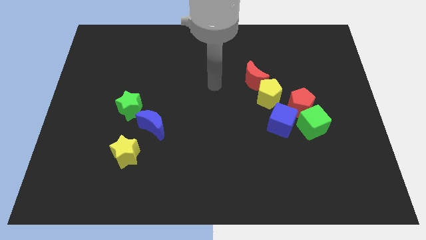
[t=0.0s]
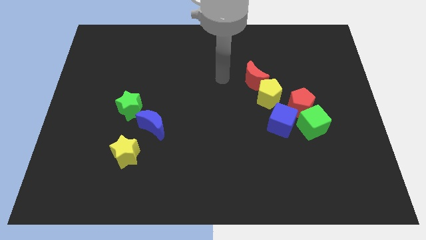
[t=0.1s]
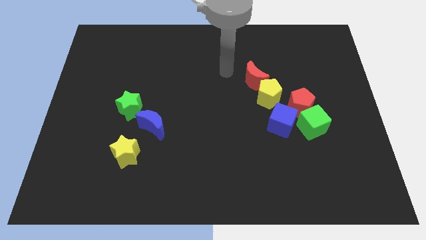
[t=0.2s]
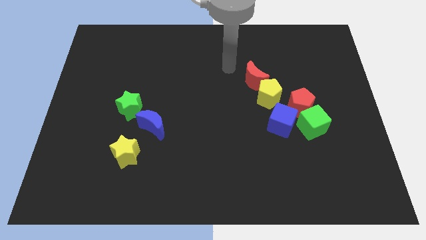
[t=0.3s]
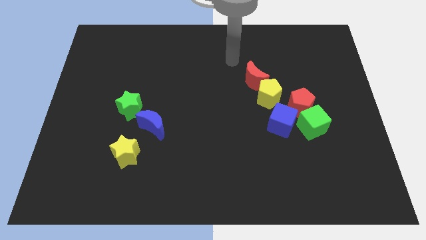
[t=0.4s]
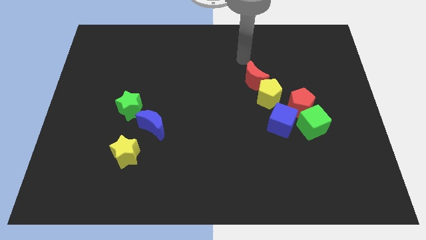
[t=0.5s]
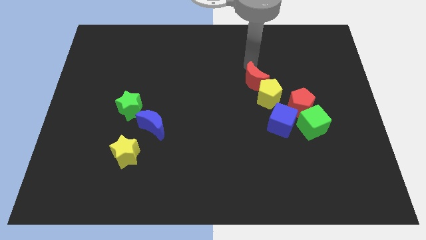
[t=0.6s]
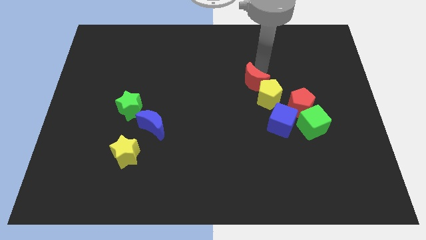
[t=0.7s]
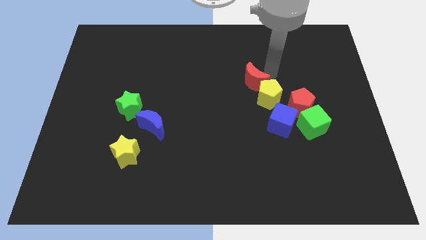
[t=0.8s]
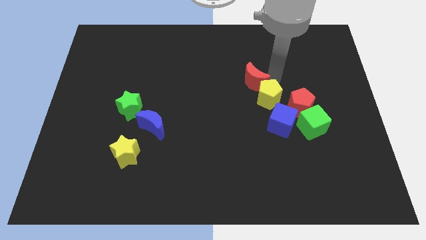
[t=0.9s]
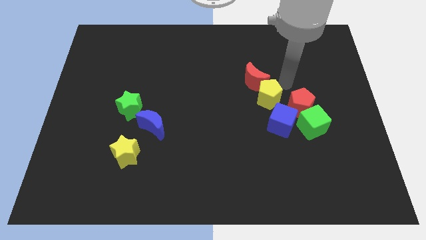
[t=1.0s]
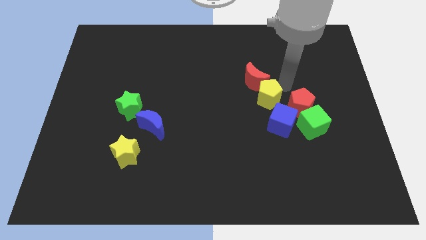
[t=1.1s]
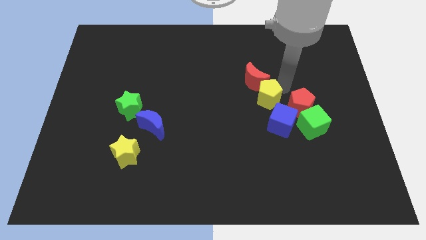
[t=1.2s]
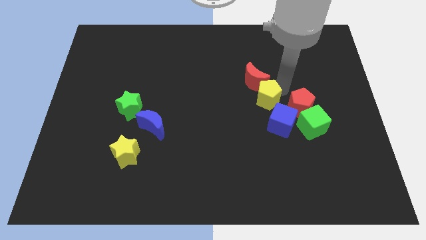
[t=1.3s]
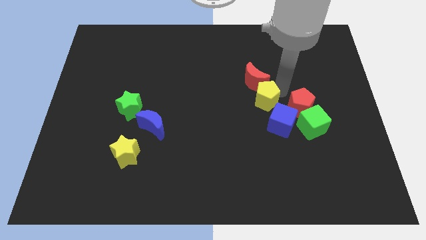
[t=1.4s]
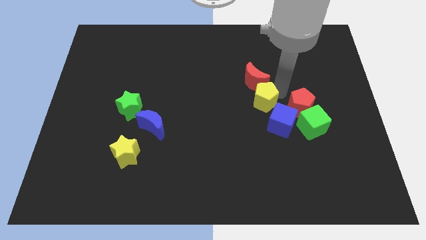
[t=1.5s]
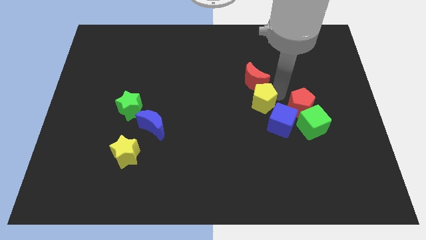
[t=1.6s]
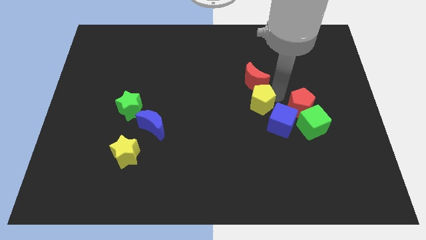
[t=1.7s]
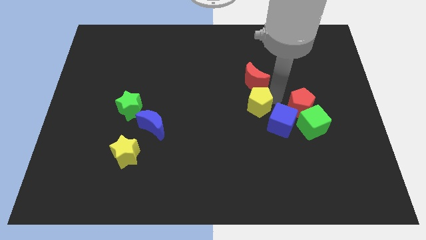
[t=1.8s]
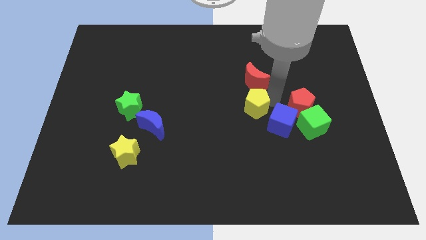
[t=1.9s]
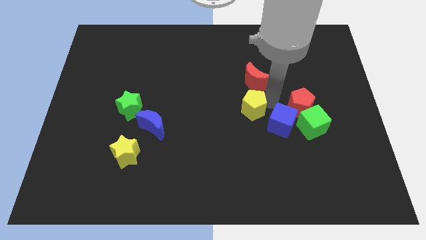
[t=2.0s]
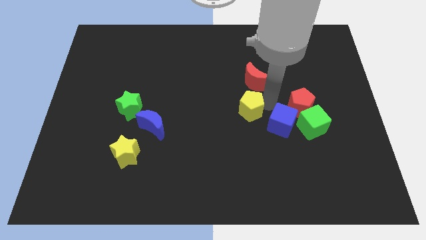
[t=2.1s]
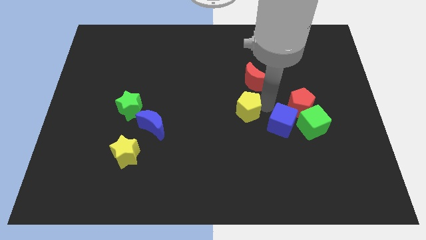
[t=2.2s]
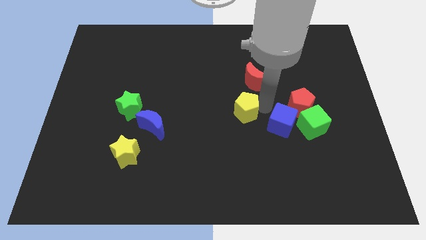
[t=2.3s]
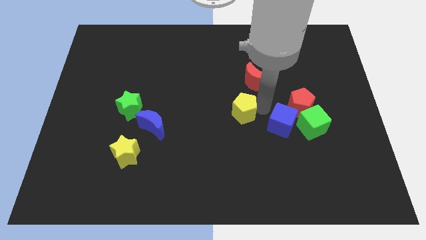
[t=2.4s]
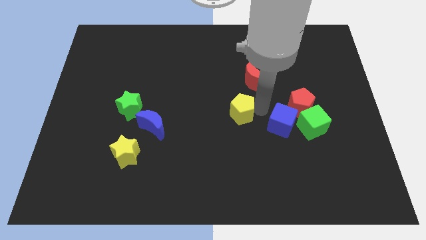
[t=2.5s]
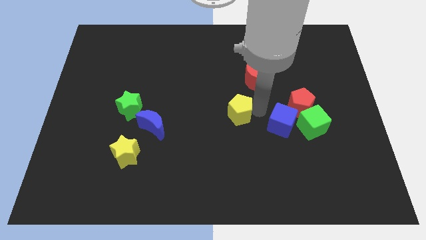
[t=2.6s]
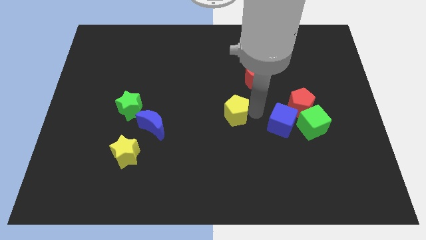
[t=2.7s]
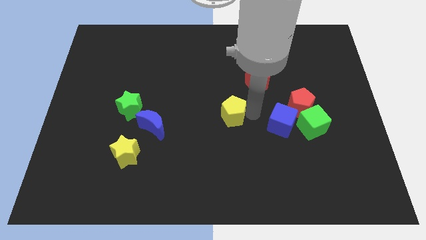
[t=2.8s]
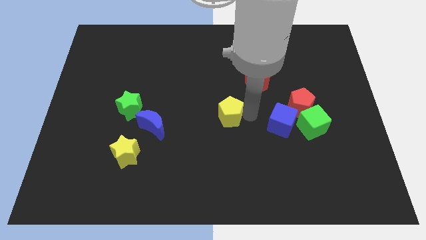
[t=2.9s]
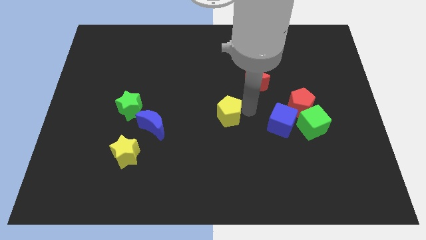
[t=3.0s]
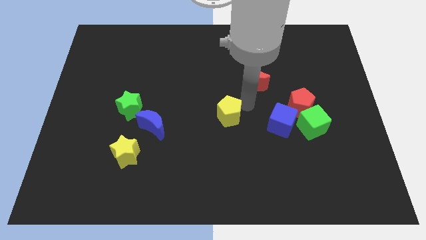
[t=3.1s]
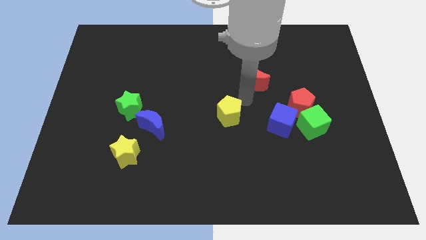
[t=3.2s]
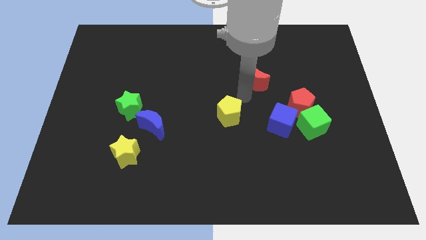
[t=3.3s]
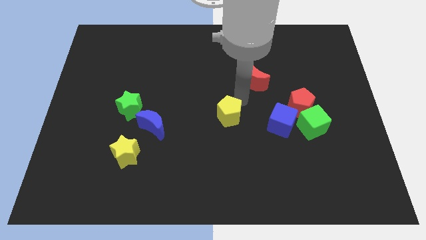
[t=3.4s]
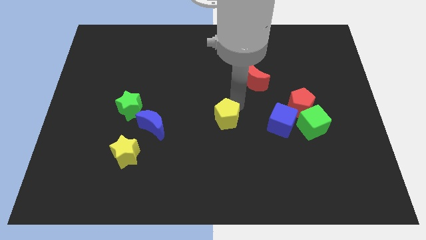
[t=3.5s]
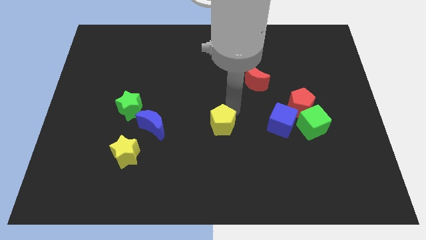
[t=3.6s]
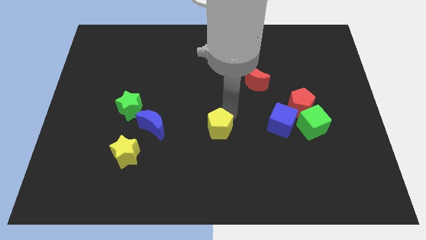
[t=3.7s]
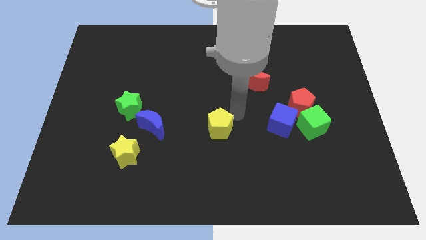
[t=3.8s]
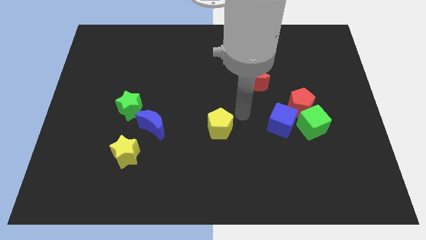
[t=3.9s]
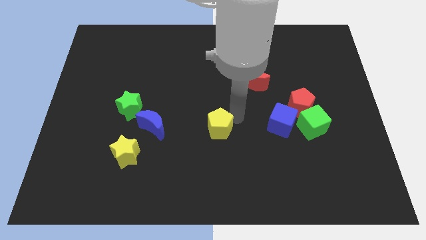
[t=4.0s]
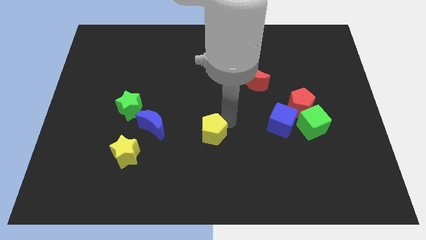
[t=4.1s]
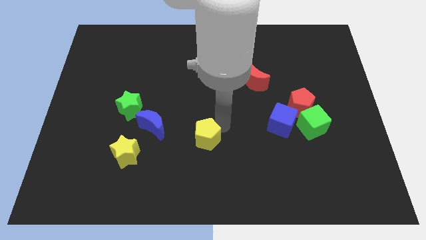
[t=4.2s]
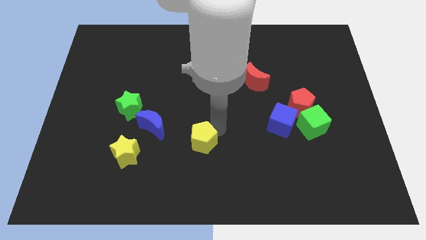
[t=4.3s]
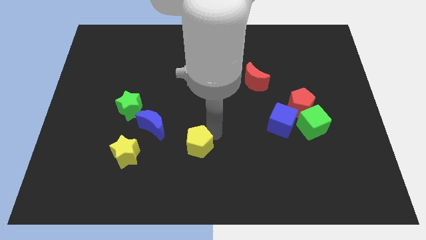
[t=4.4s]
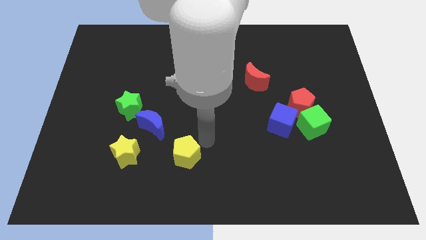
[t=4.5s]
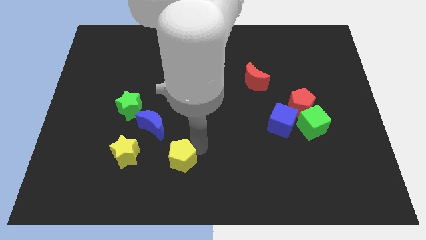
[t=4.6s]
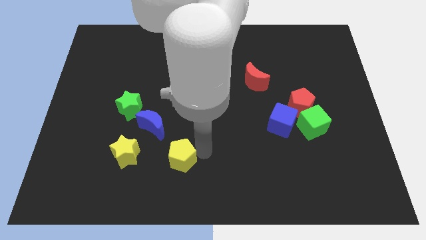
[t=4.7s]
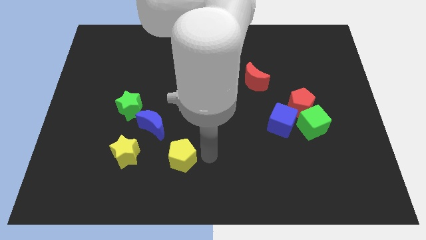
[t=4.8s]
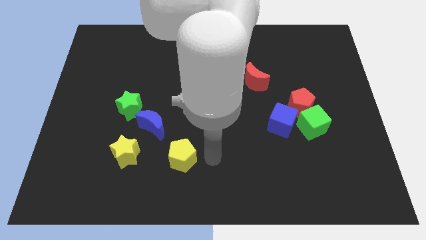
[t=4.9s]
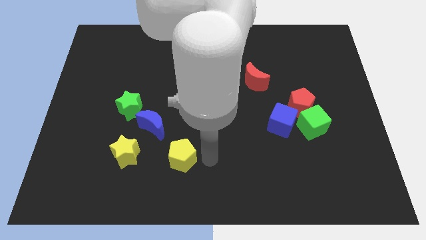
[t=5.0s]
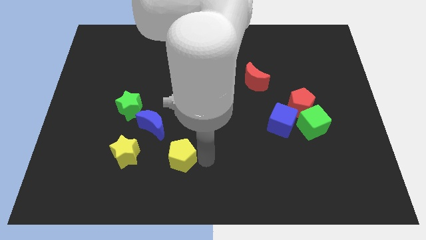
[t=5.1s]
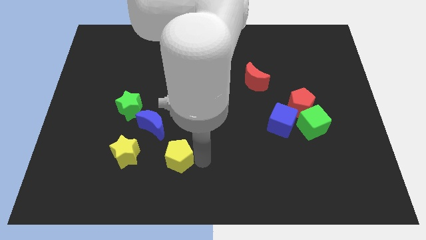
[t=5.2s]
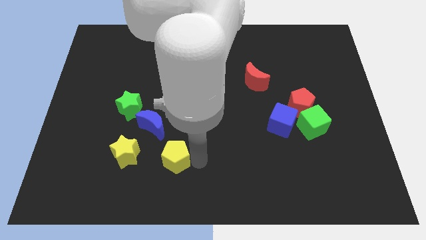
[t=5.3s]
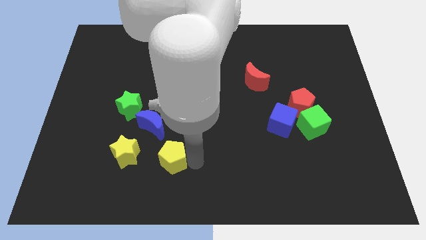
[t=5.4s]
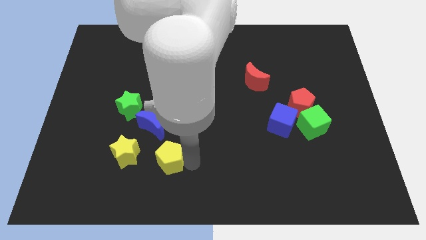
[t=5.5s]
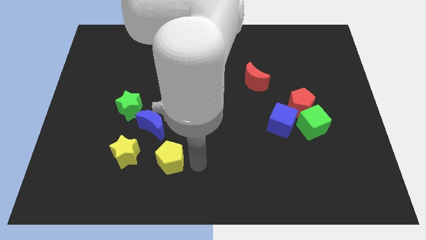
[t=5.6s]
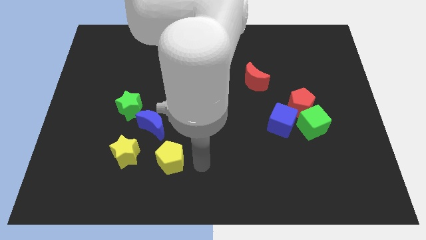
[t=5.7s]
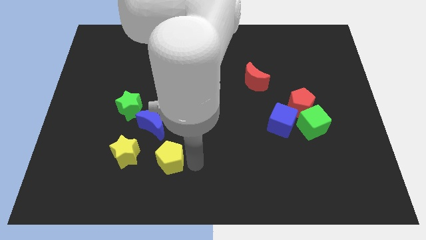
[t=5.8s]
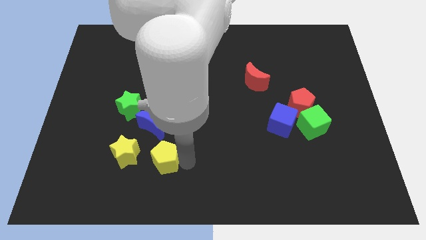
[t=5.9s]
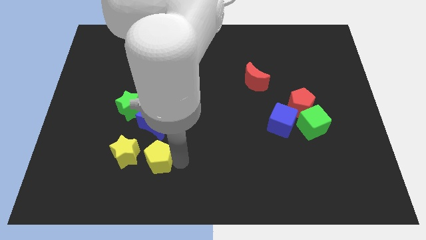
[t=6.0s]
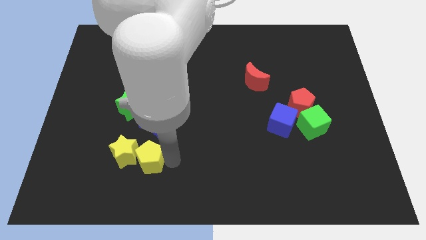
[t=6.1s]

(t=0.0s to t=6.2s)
move the yellow pentagon towards the yellow star
